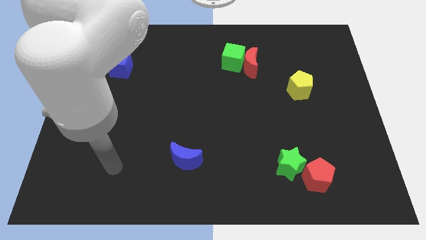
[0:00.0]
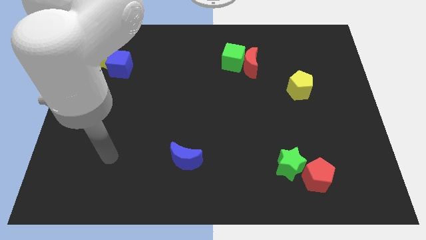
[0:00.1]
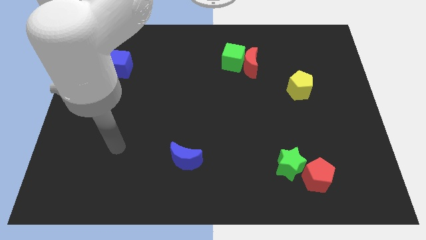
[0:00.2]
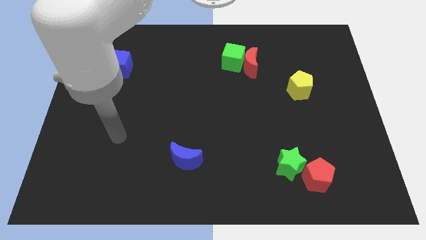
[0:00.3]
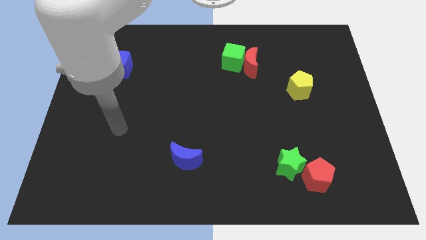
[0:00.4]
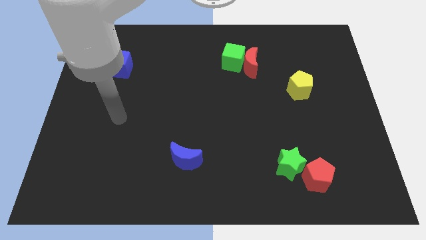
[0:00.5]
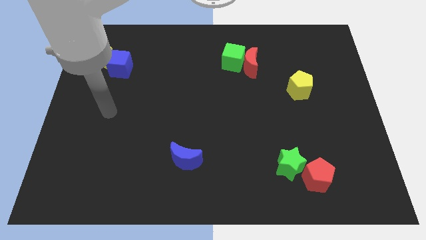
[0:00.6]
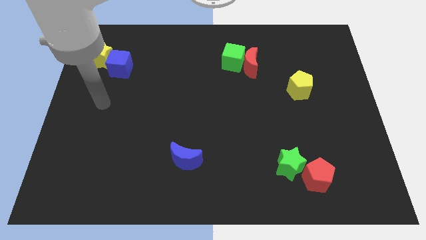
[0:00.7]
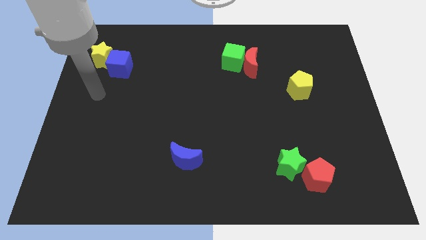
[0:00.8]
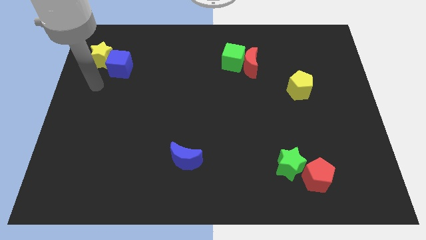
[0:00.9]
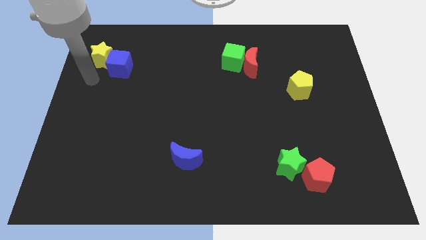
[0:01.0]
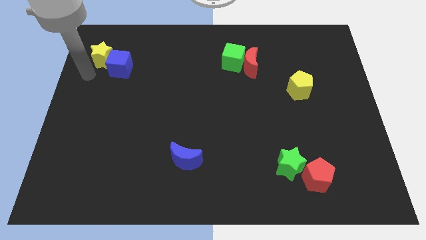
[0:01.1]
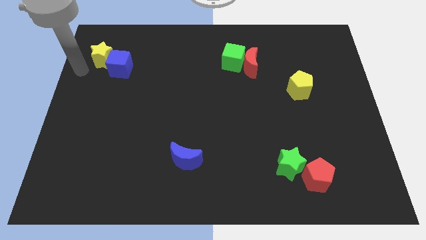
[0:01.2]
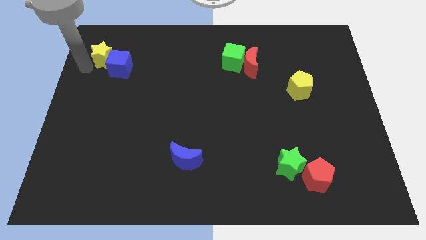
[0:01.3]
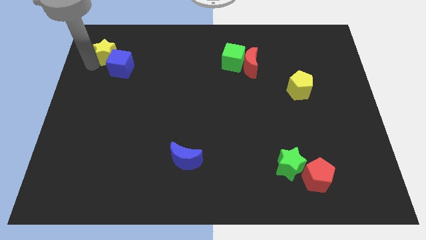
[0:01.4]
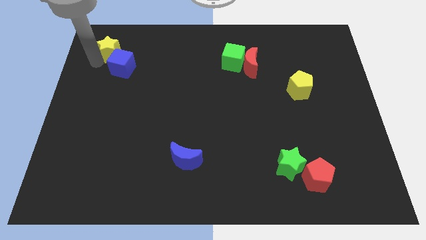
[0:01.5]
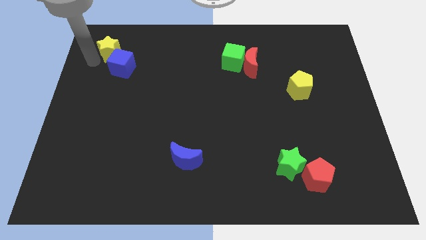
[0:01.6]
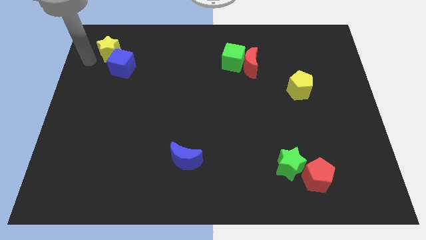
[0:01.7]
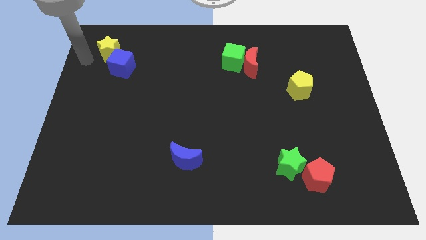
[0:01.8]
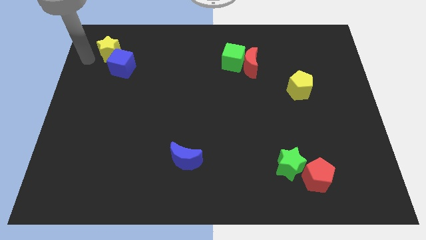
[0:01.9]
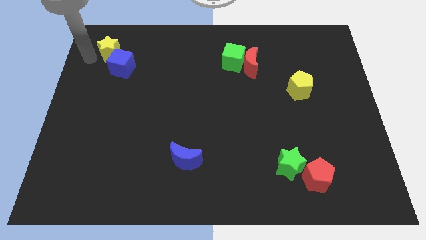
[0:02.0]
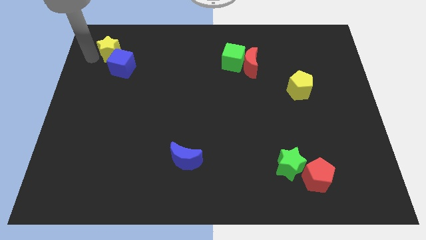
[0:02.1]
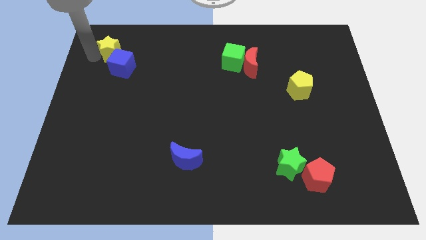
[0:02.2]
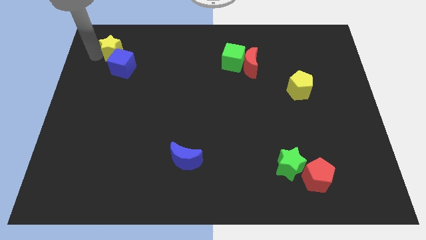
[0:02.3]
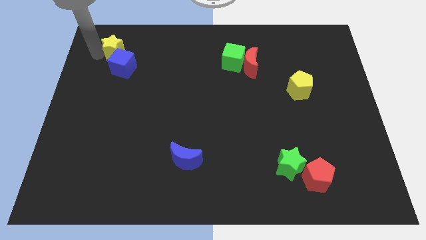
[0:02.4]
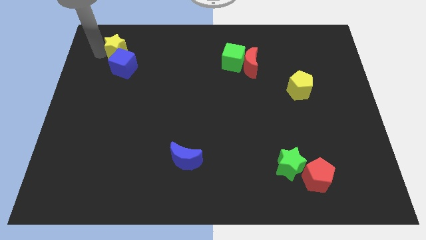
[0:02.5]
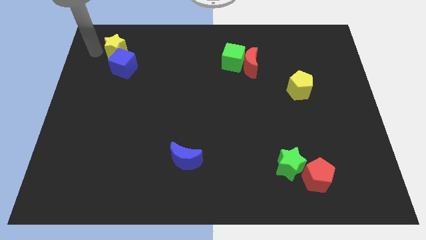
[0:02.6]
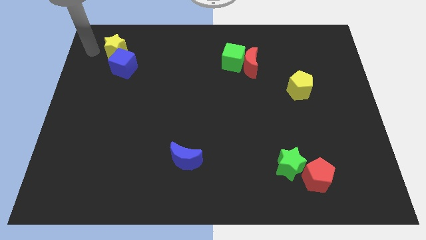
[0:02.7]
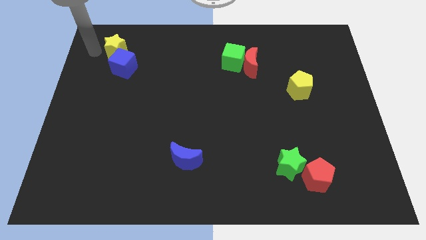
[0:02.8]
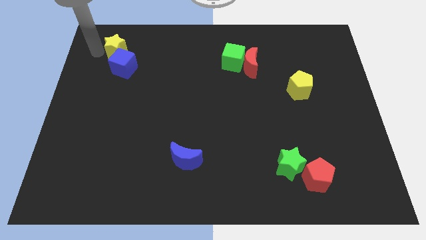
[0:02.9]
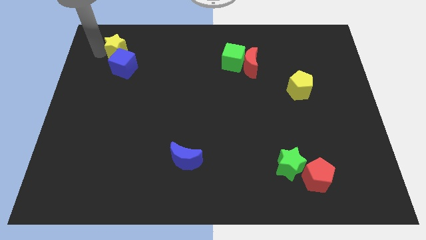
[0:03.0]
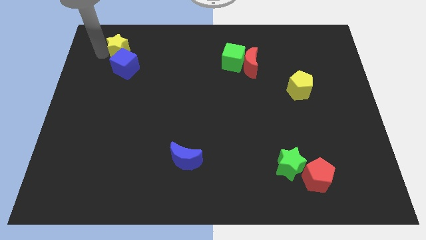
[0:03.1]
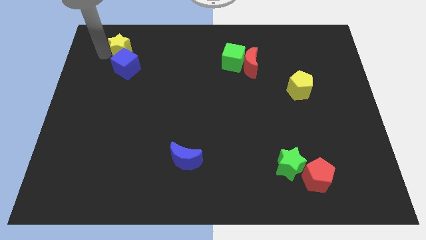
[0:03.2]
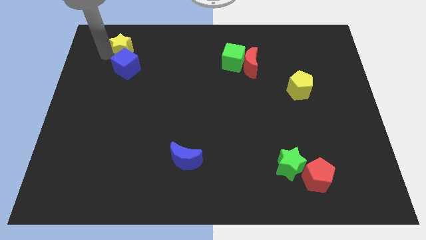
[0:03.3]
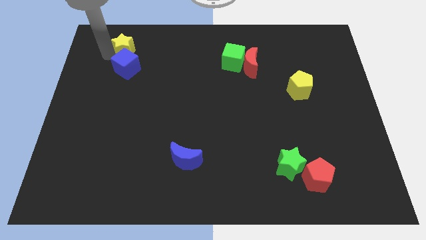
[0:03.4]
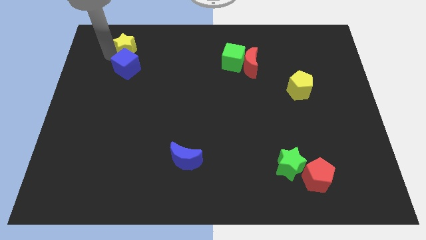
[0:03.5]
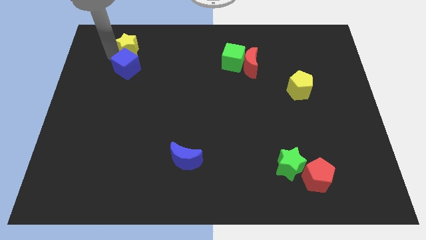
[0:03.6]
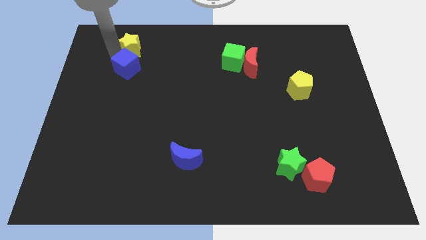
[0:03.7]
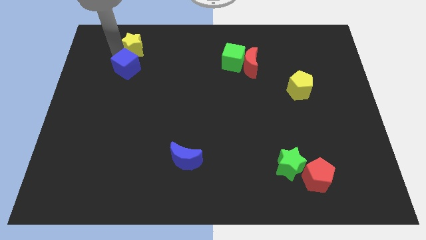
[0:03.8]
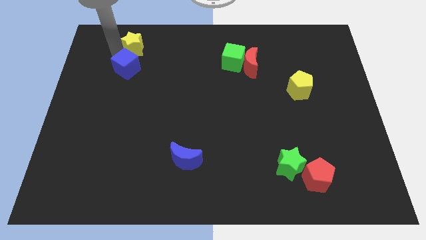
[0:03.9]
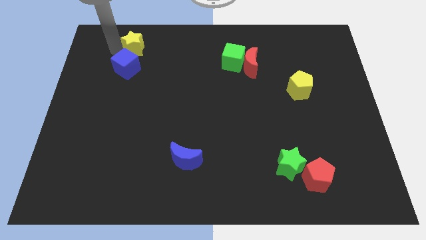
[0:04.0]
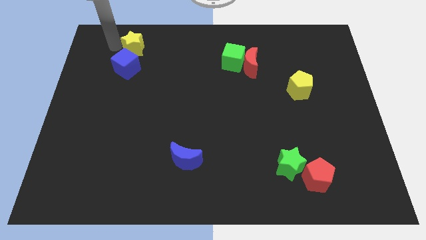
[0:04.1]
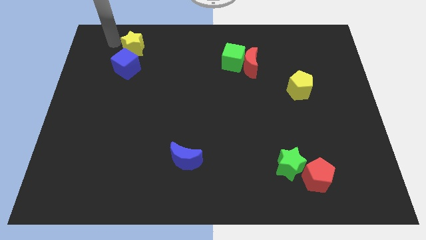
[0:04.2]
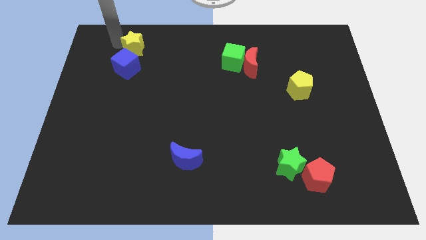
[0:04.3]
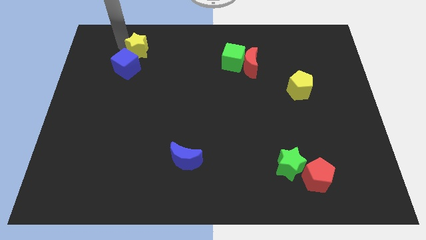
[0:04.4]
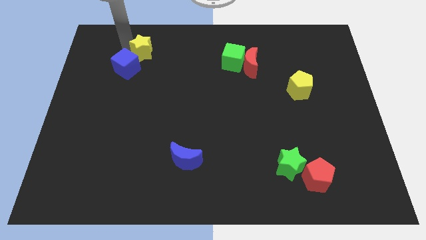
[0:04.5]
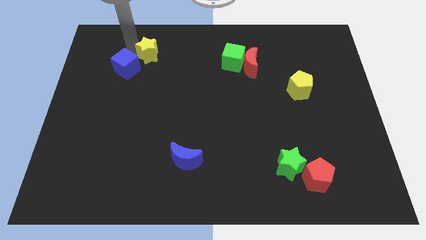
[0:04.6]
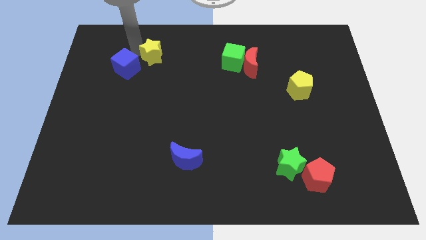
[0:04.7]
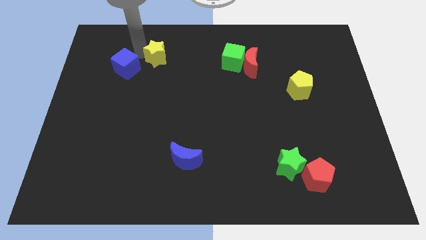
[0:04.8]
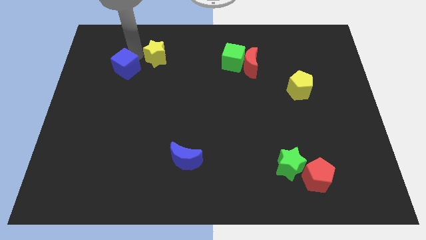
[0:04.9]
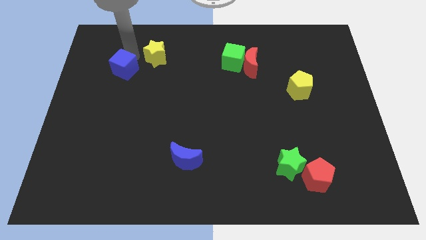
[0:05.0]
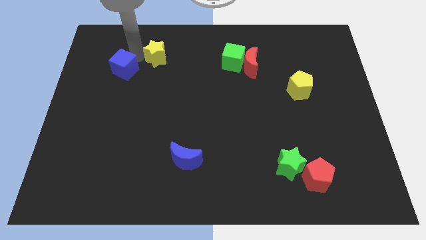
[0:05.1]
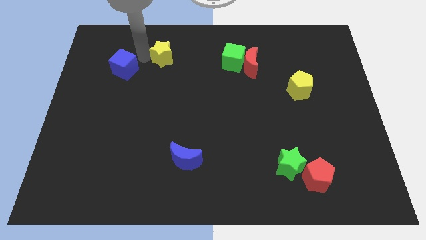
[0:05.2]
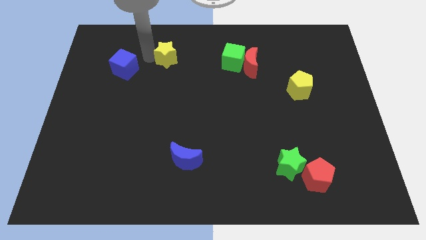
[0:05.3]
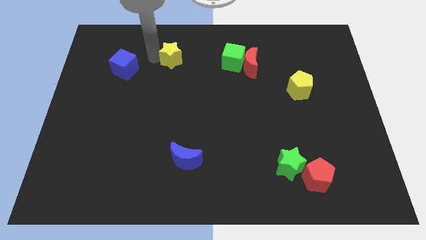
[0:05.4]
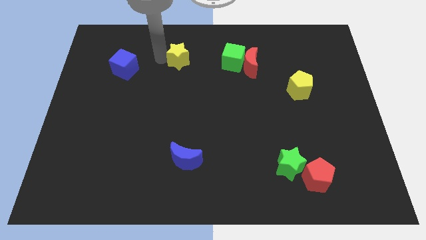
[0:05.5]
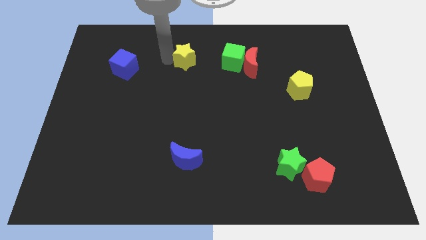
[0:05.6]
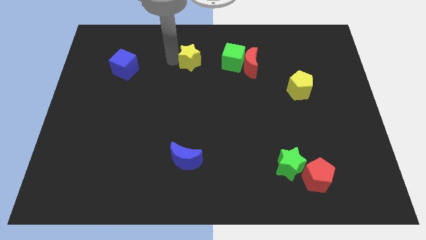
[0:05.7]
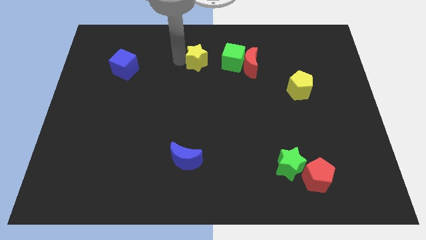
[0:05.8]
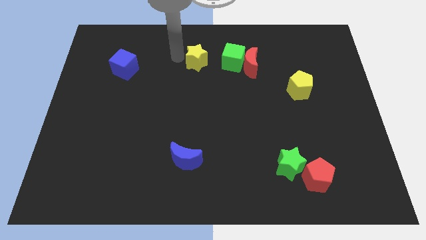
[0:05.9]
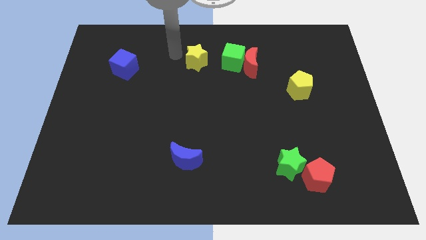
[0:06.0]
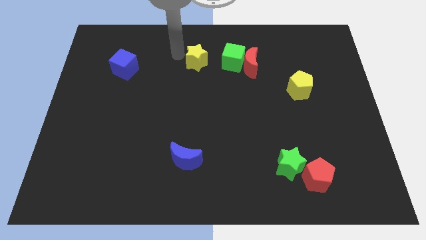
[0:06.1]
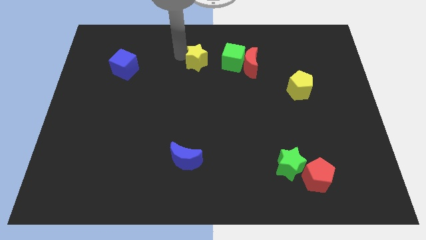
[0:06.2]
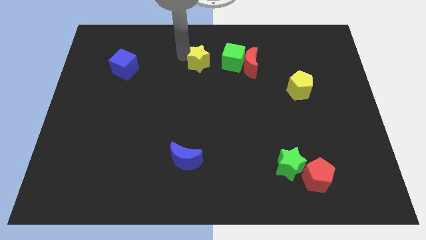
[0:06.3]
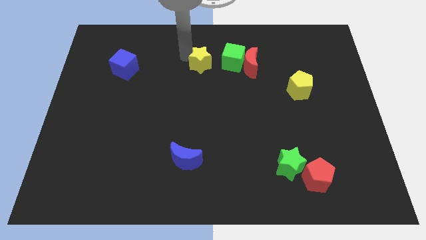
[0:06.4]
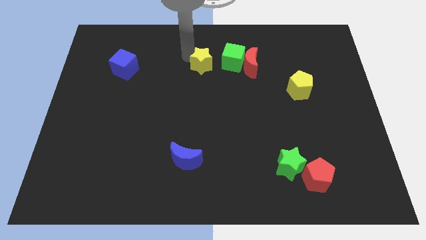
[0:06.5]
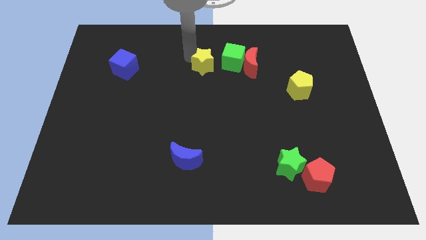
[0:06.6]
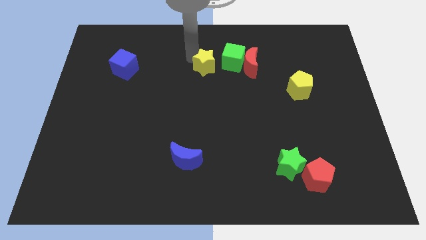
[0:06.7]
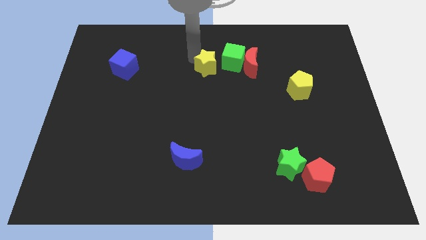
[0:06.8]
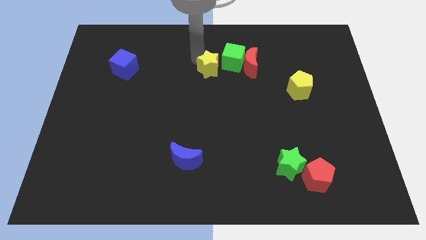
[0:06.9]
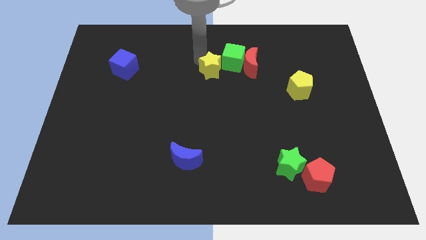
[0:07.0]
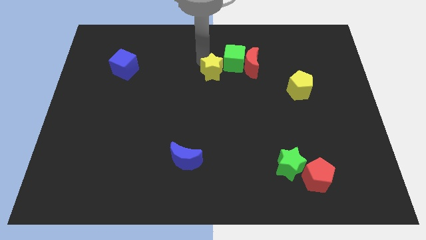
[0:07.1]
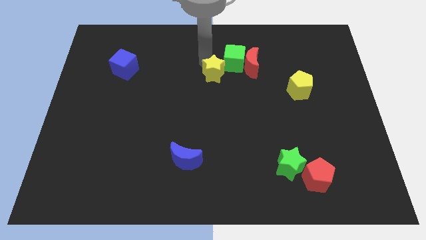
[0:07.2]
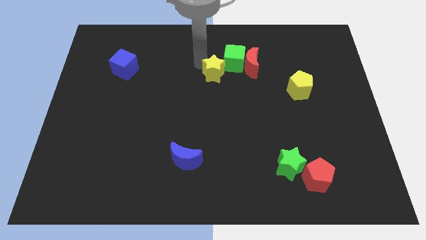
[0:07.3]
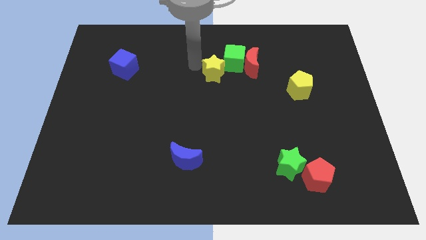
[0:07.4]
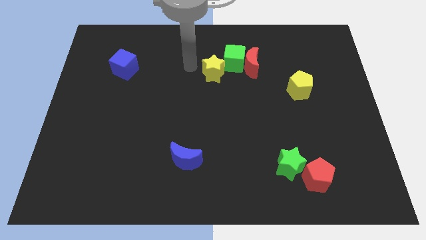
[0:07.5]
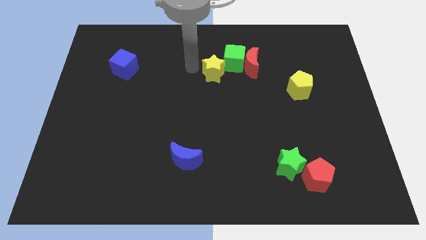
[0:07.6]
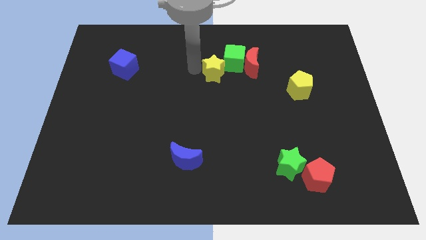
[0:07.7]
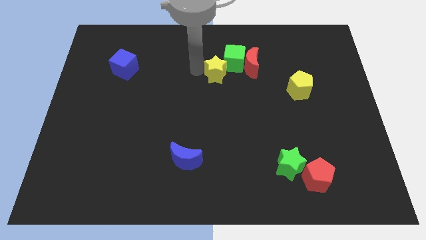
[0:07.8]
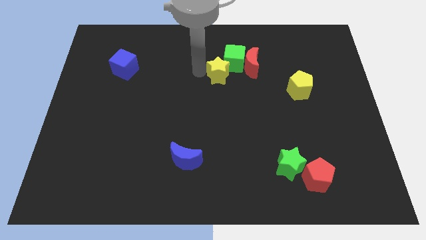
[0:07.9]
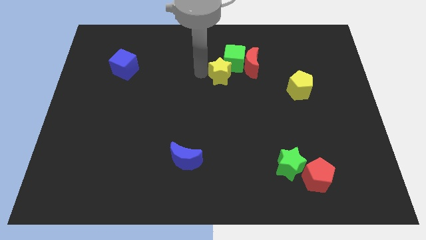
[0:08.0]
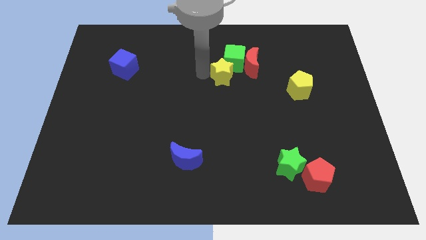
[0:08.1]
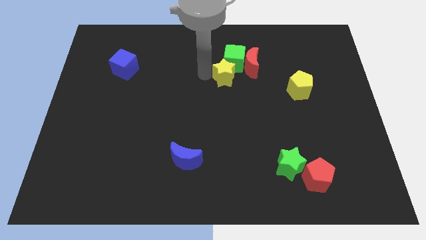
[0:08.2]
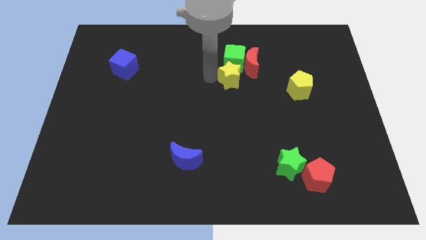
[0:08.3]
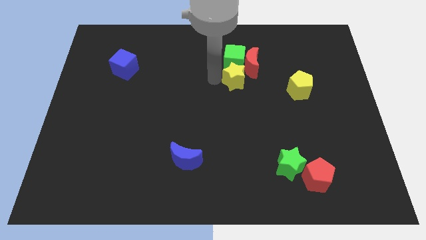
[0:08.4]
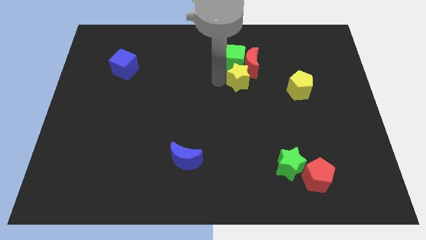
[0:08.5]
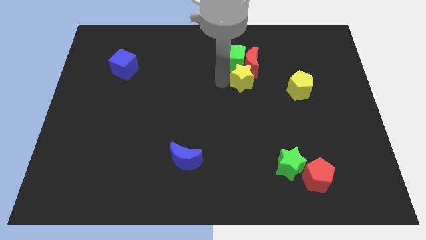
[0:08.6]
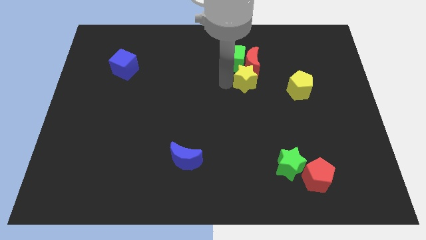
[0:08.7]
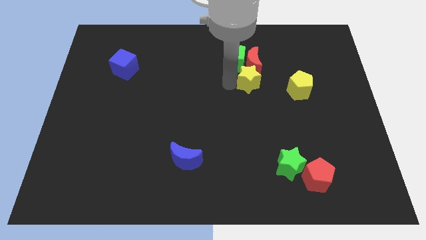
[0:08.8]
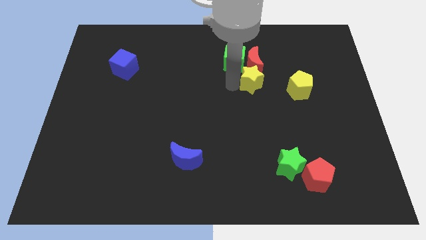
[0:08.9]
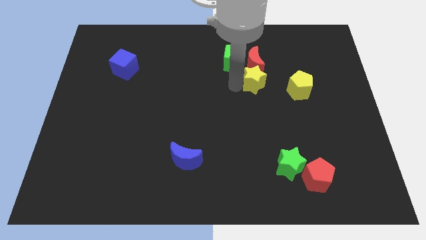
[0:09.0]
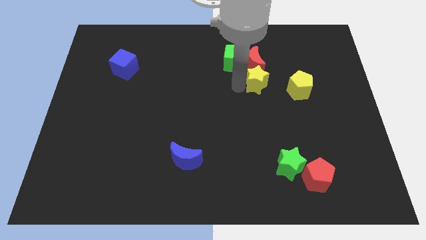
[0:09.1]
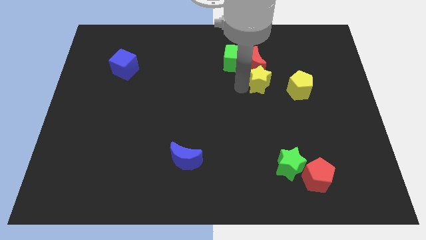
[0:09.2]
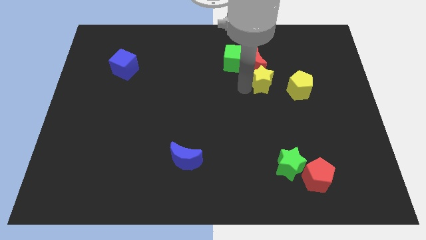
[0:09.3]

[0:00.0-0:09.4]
put the yellow star diagonally up and to the left of the yellow pentagon
